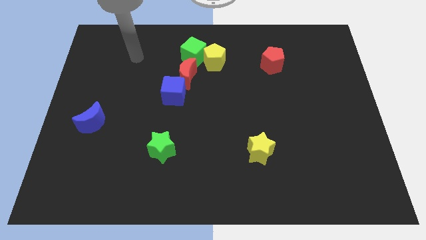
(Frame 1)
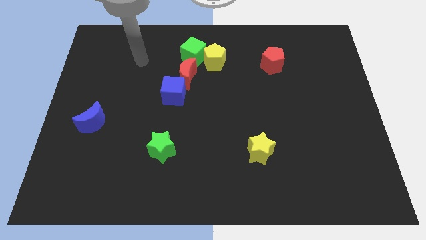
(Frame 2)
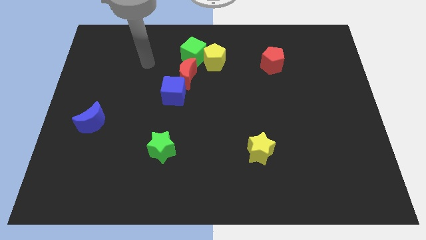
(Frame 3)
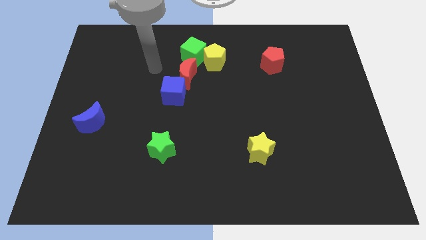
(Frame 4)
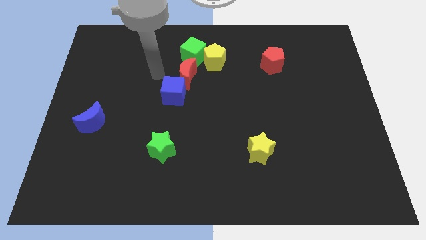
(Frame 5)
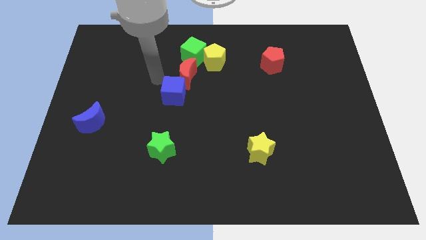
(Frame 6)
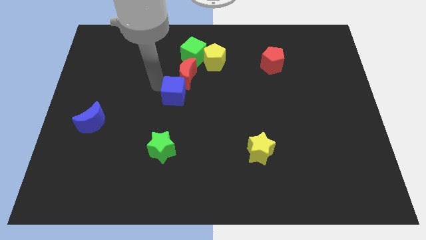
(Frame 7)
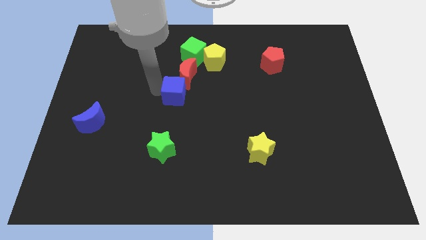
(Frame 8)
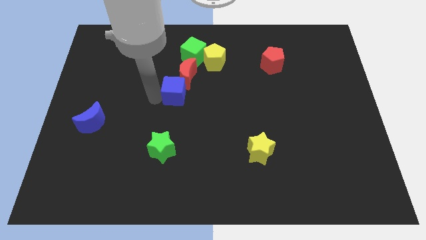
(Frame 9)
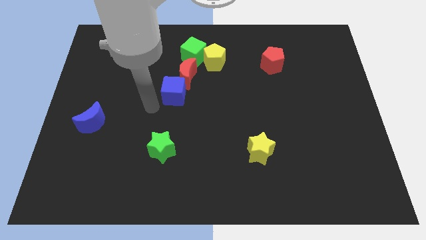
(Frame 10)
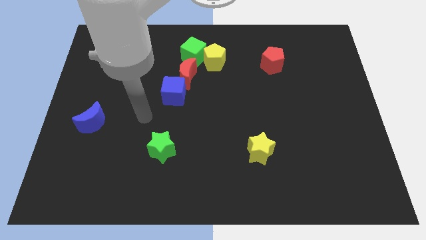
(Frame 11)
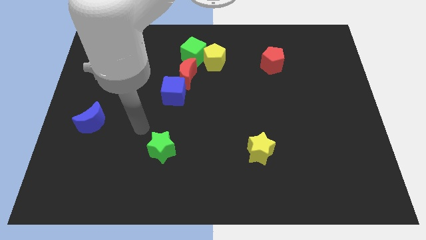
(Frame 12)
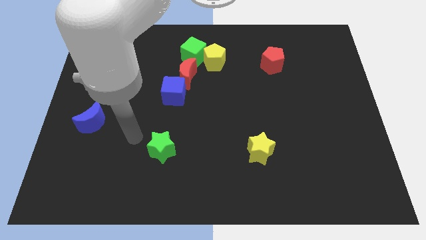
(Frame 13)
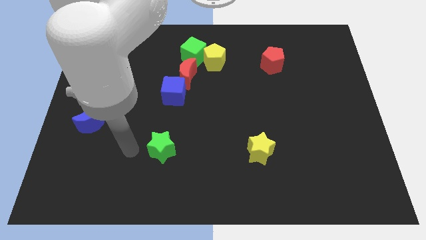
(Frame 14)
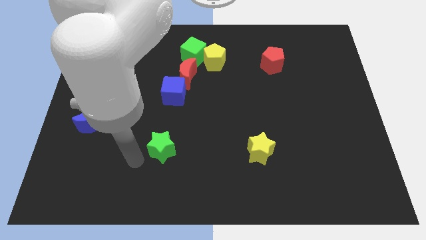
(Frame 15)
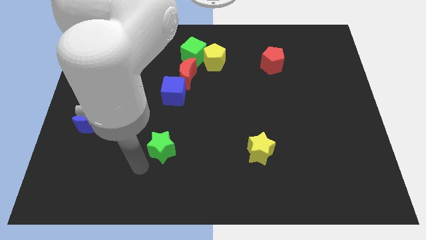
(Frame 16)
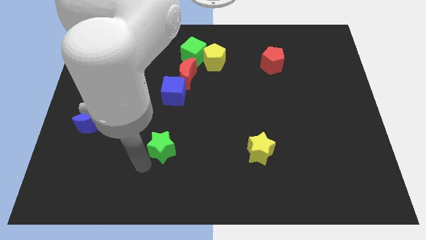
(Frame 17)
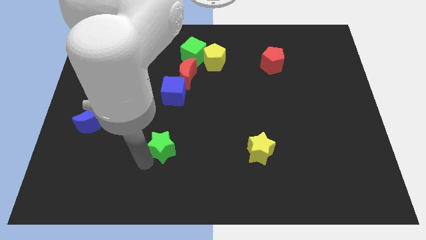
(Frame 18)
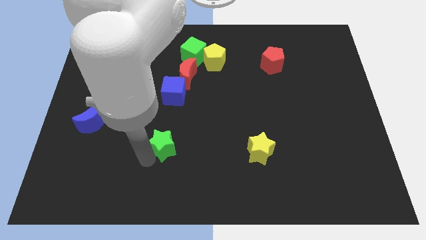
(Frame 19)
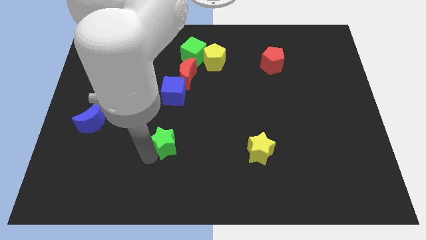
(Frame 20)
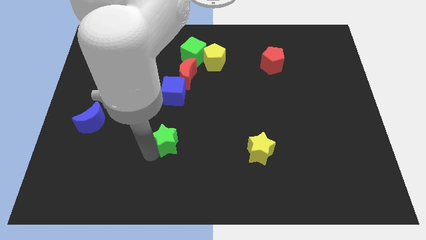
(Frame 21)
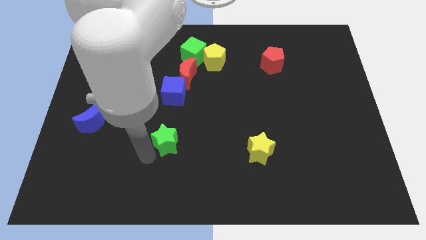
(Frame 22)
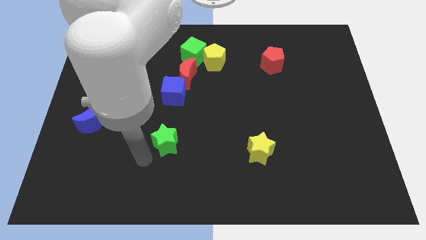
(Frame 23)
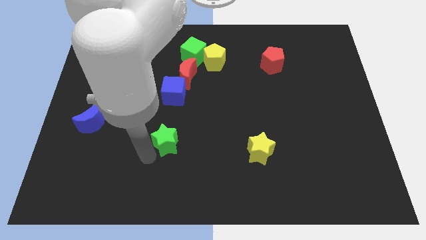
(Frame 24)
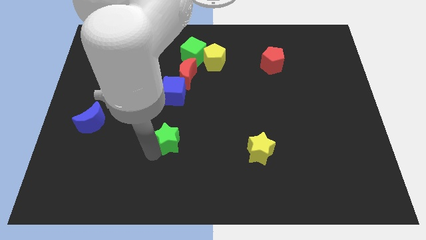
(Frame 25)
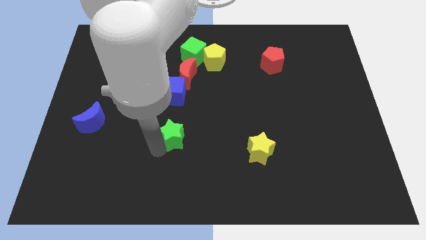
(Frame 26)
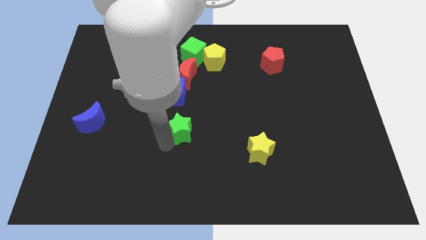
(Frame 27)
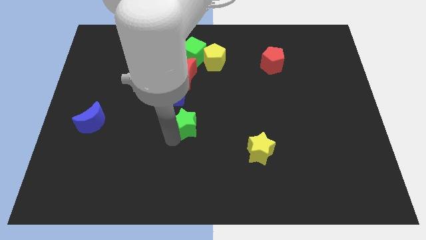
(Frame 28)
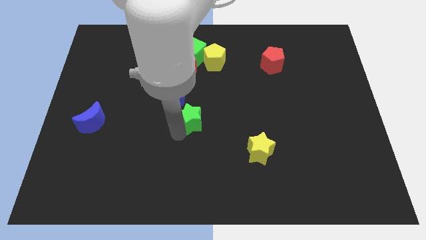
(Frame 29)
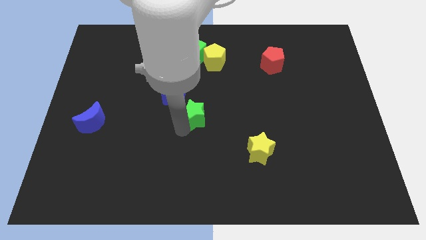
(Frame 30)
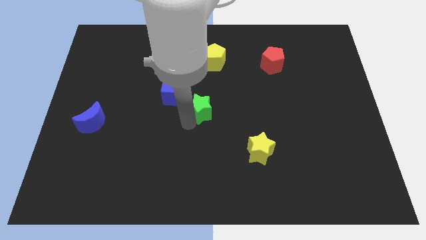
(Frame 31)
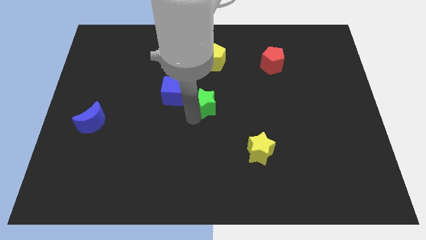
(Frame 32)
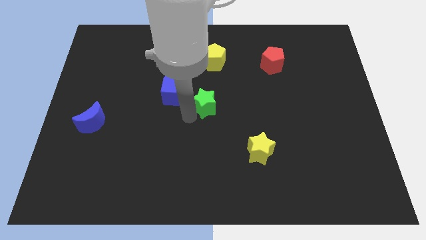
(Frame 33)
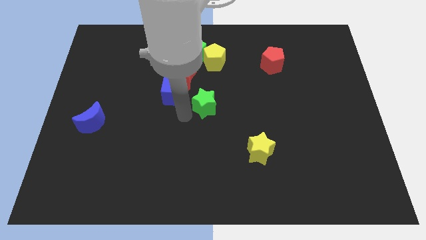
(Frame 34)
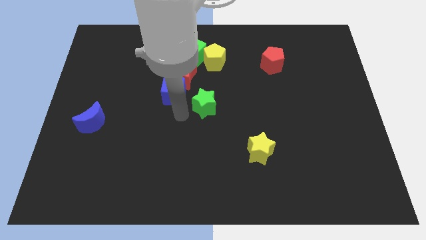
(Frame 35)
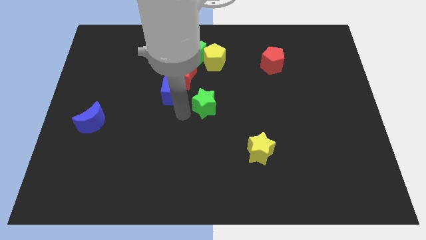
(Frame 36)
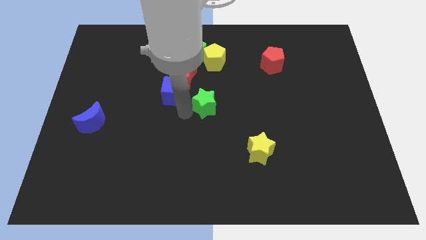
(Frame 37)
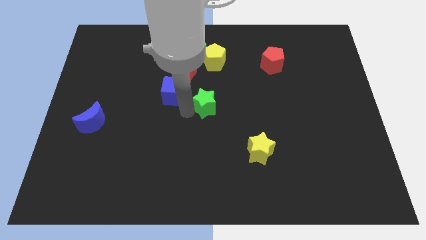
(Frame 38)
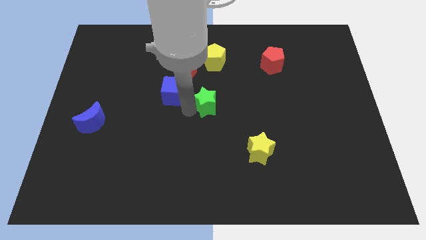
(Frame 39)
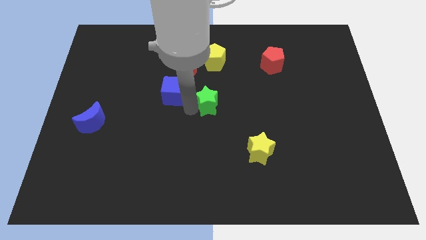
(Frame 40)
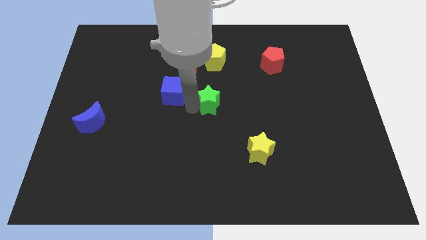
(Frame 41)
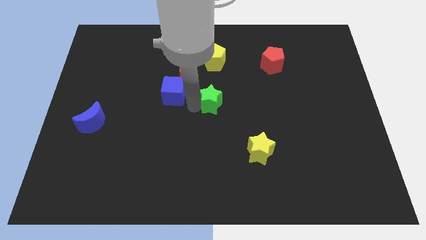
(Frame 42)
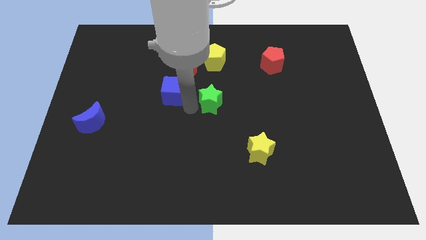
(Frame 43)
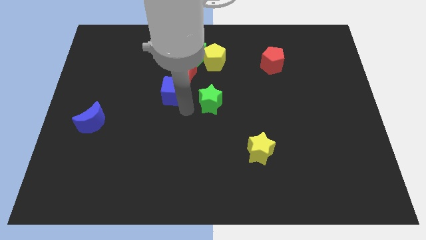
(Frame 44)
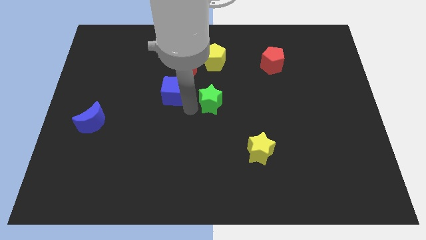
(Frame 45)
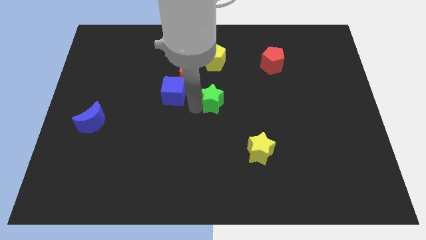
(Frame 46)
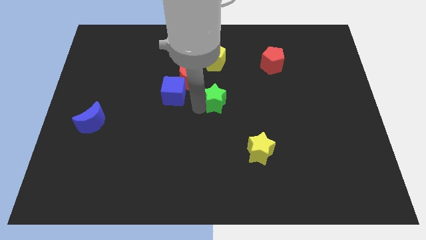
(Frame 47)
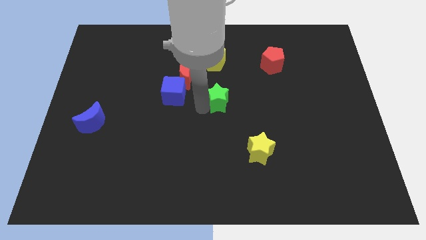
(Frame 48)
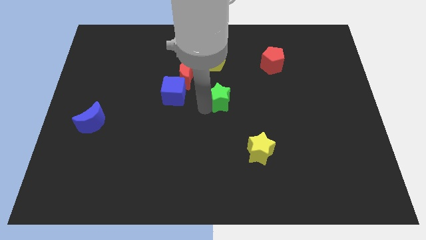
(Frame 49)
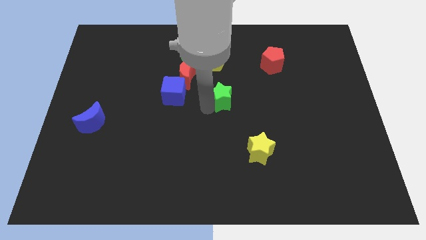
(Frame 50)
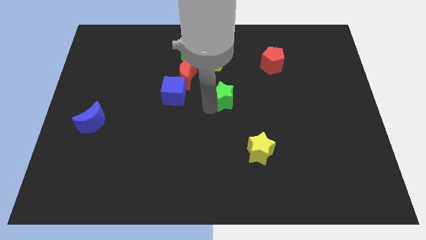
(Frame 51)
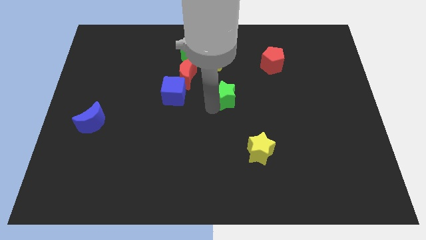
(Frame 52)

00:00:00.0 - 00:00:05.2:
push the green star up and right

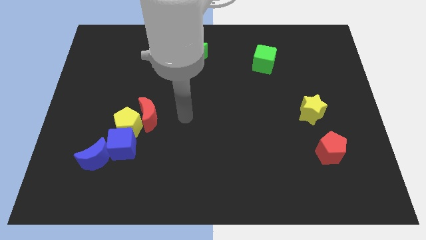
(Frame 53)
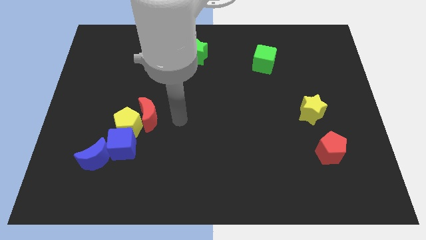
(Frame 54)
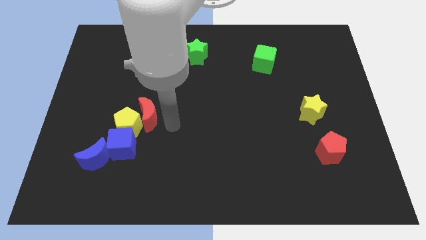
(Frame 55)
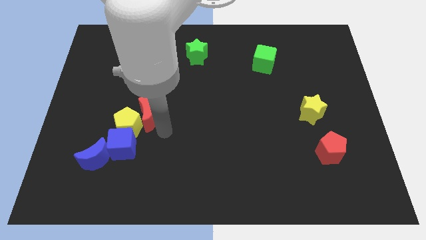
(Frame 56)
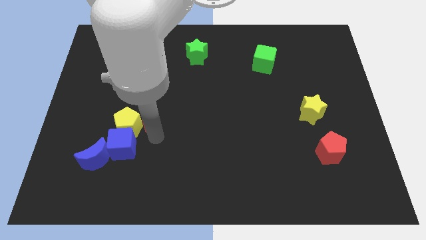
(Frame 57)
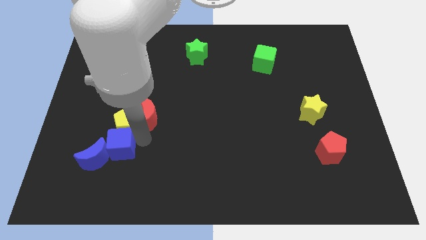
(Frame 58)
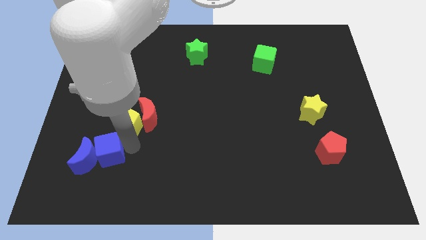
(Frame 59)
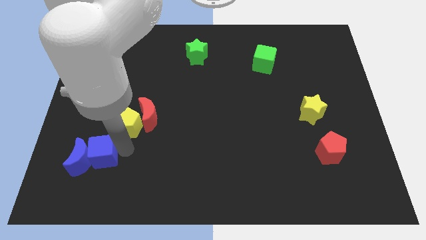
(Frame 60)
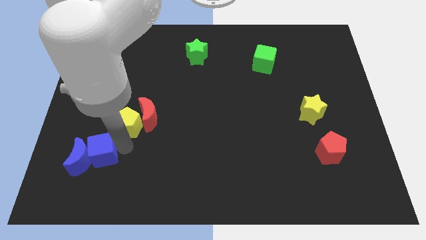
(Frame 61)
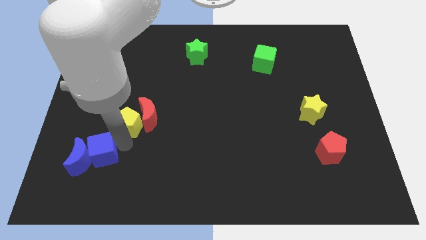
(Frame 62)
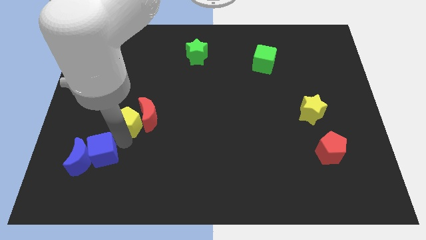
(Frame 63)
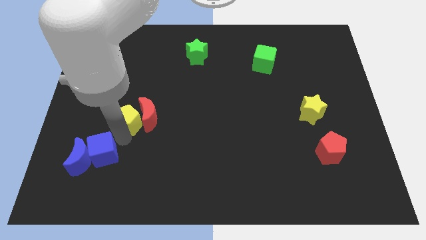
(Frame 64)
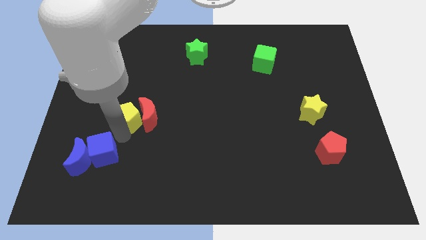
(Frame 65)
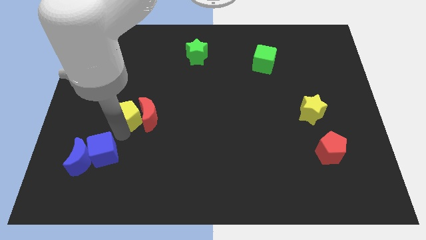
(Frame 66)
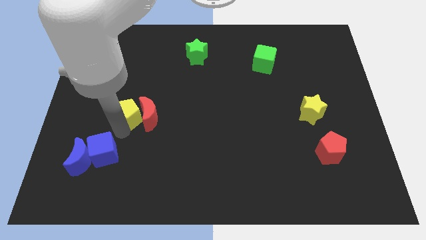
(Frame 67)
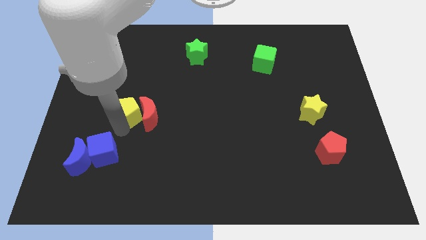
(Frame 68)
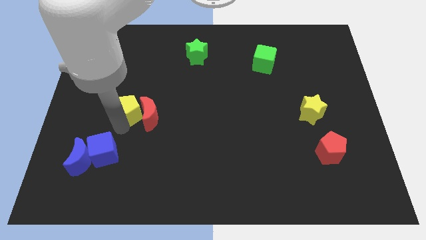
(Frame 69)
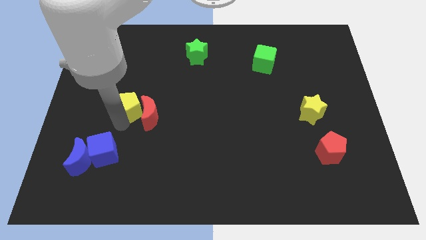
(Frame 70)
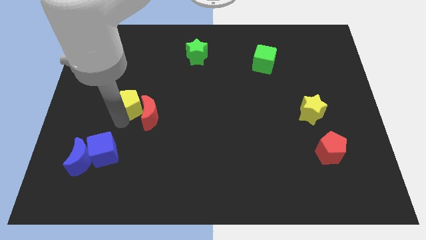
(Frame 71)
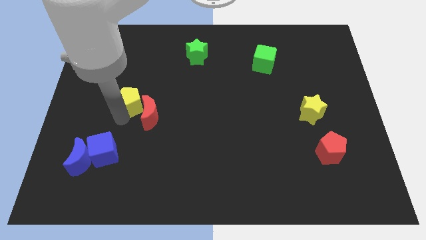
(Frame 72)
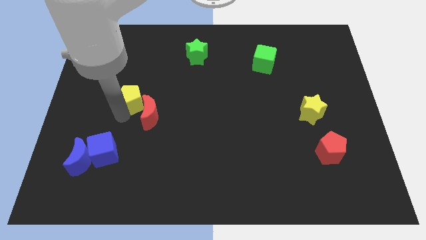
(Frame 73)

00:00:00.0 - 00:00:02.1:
push the yellow pentagon somewhat up

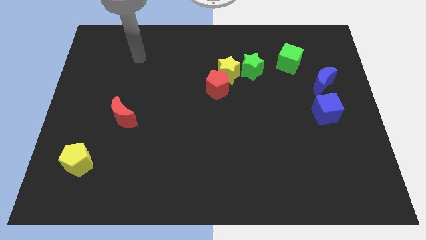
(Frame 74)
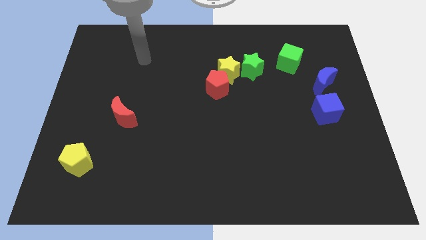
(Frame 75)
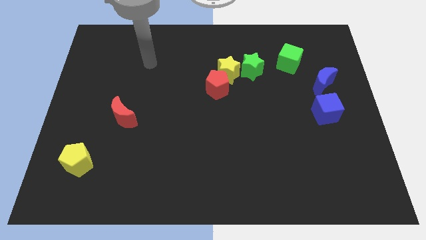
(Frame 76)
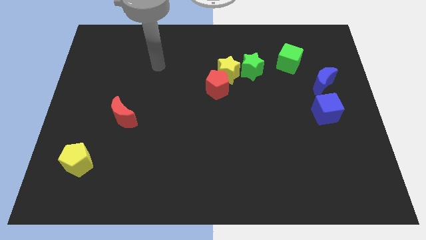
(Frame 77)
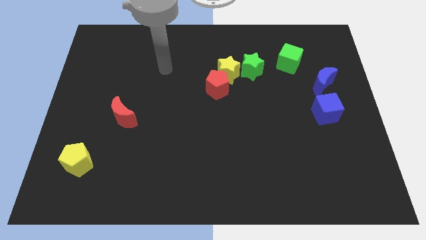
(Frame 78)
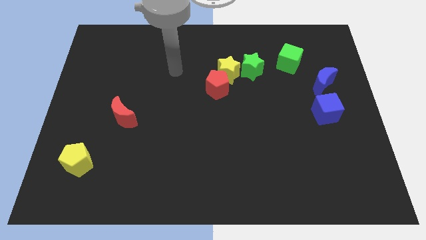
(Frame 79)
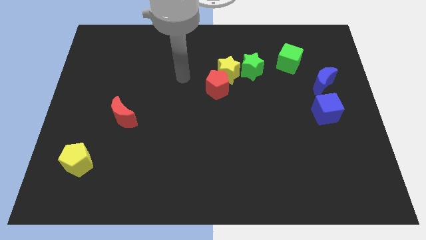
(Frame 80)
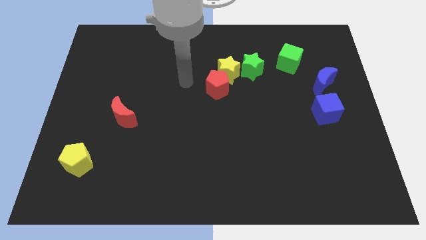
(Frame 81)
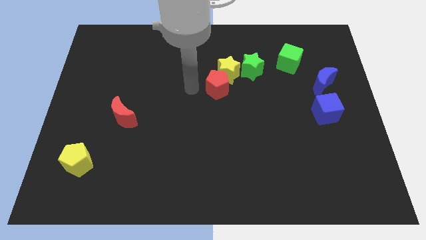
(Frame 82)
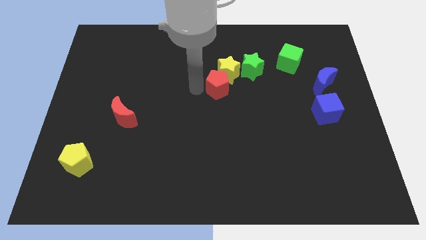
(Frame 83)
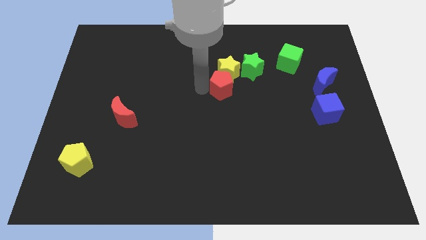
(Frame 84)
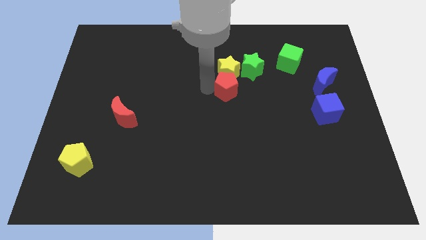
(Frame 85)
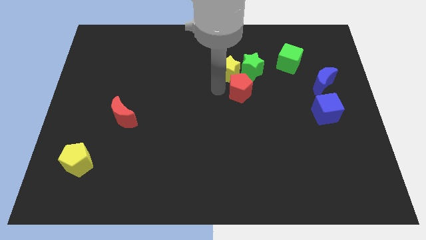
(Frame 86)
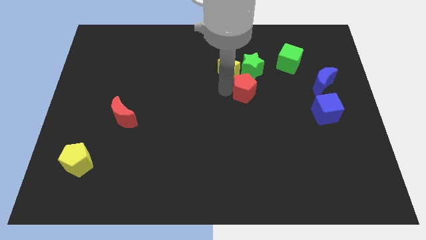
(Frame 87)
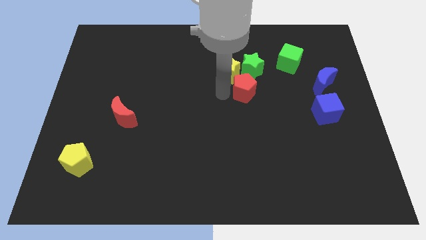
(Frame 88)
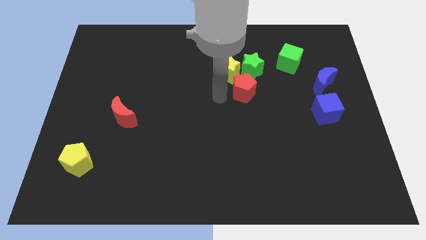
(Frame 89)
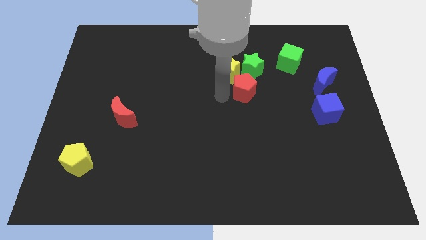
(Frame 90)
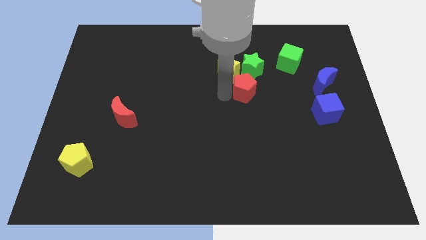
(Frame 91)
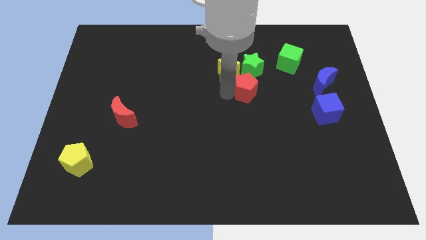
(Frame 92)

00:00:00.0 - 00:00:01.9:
move the red pentagon to the right a little
